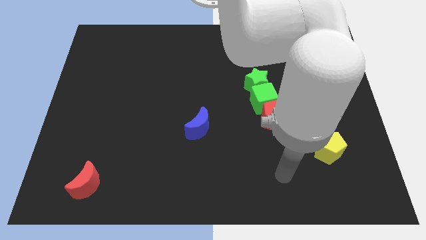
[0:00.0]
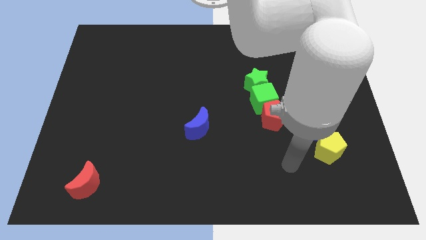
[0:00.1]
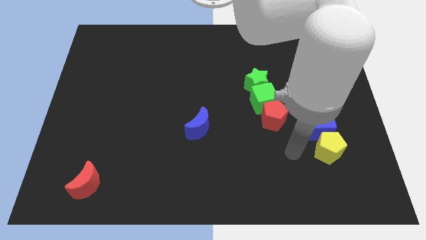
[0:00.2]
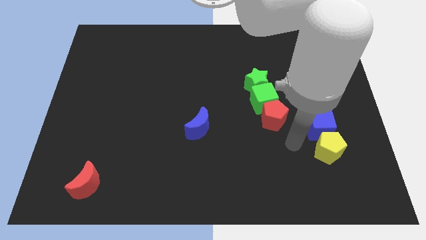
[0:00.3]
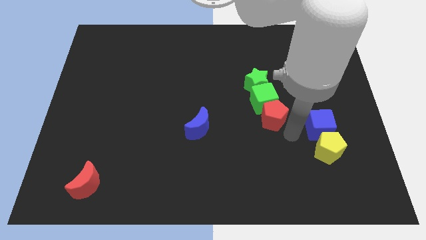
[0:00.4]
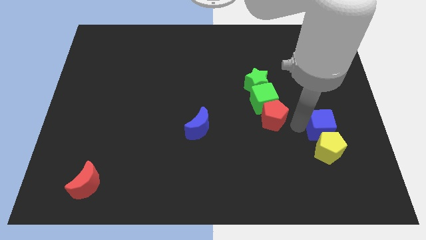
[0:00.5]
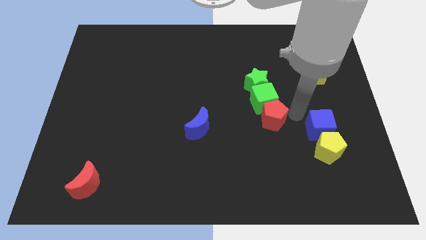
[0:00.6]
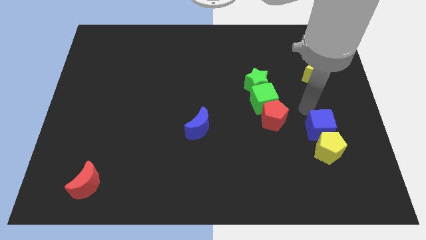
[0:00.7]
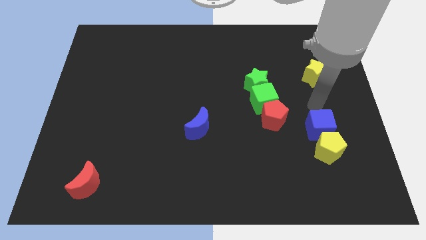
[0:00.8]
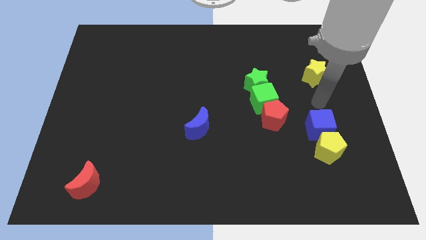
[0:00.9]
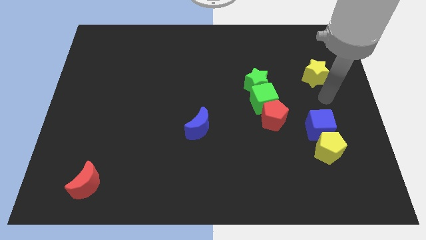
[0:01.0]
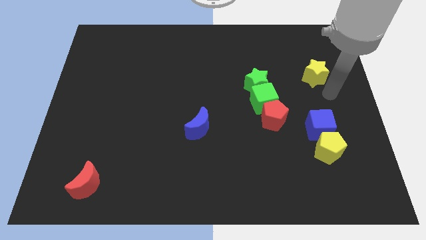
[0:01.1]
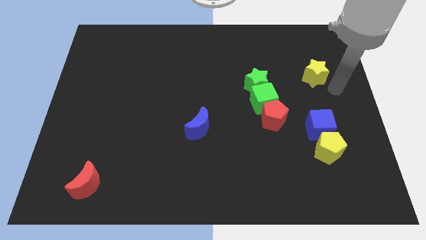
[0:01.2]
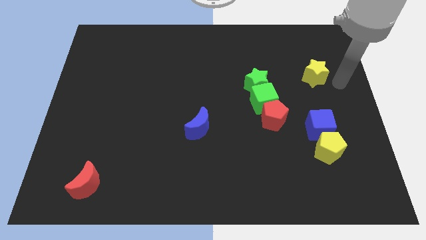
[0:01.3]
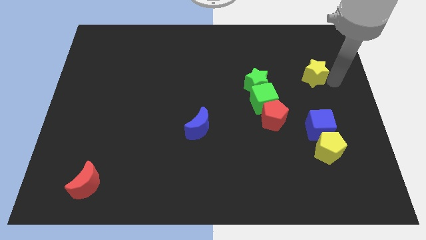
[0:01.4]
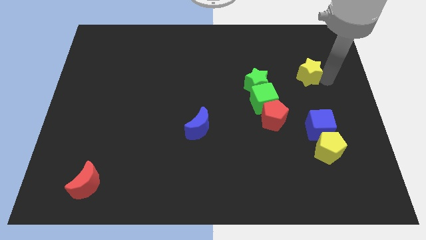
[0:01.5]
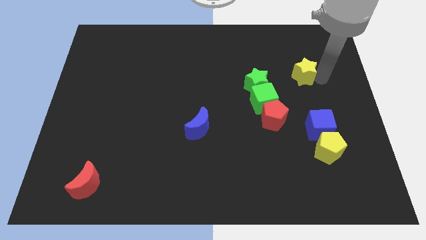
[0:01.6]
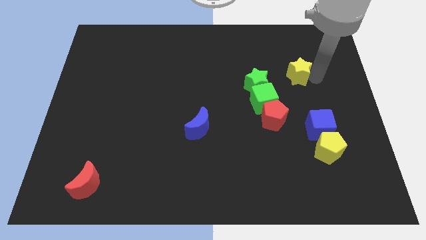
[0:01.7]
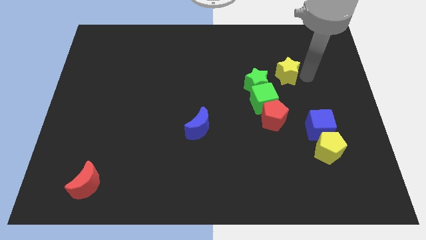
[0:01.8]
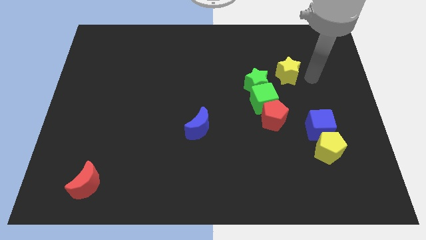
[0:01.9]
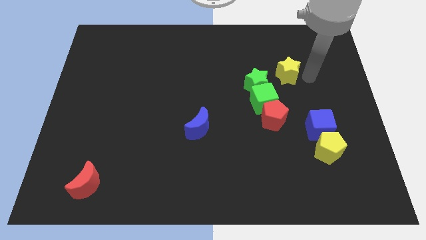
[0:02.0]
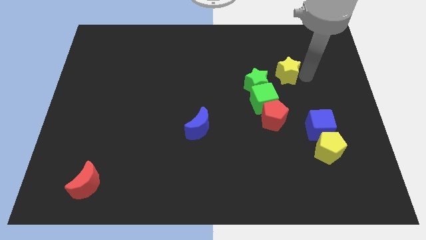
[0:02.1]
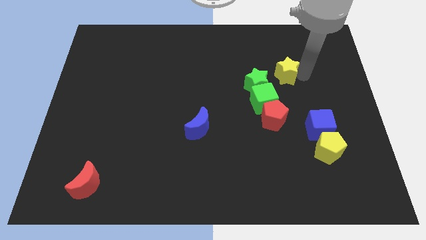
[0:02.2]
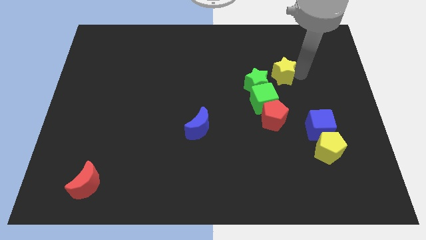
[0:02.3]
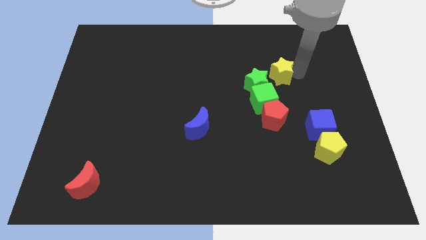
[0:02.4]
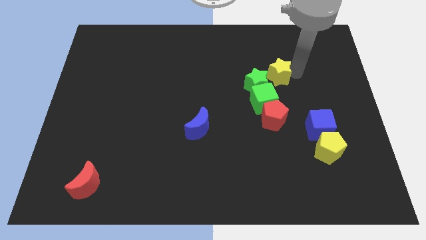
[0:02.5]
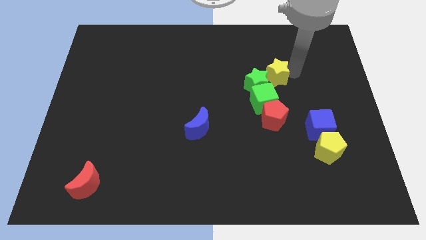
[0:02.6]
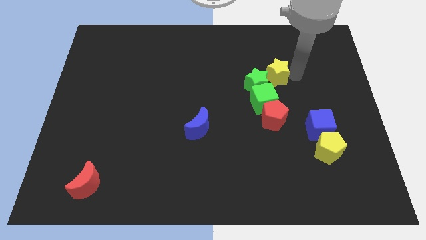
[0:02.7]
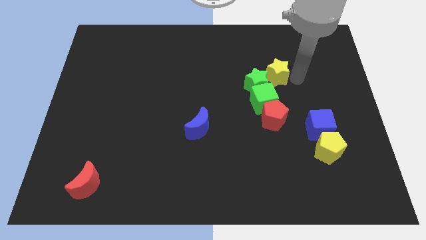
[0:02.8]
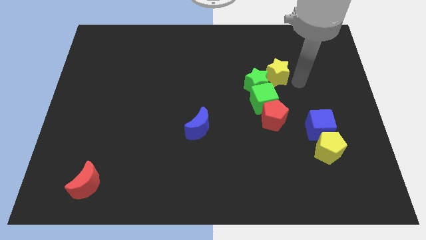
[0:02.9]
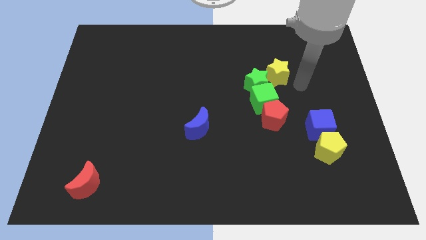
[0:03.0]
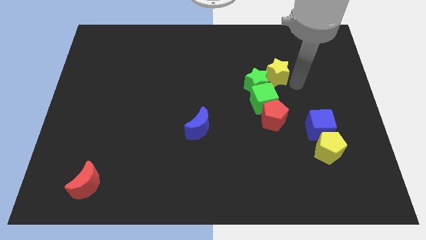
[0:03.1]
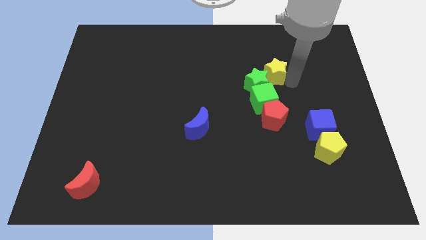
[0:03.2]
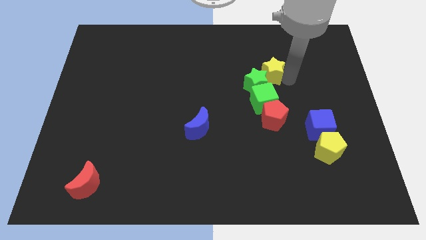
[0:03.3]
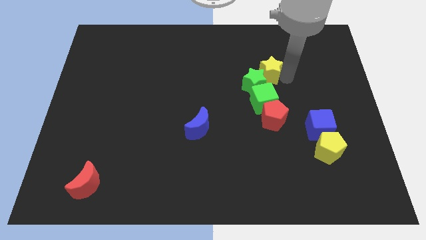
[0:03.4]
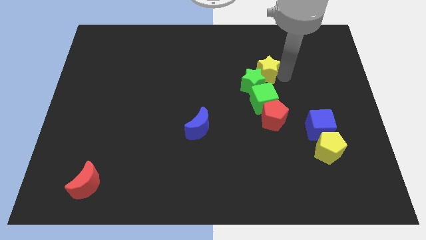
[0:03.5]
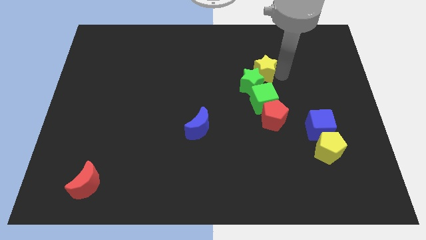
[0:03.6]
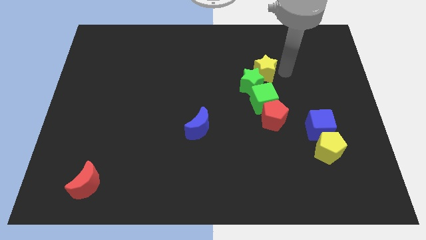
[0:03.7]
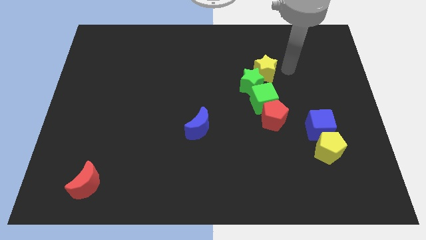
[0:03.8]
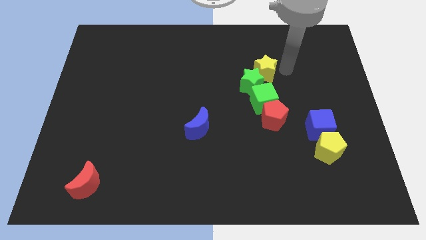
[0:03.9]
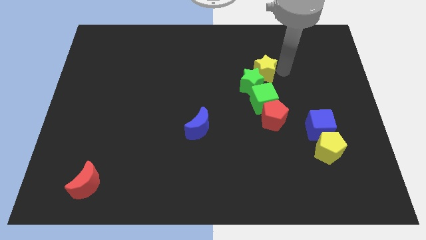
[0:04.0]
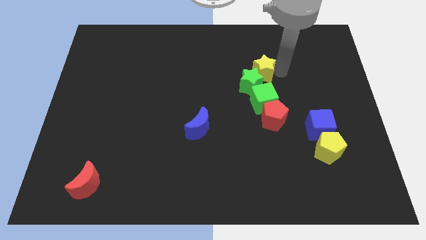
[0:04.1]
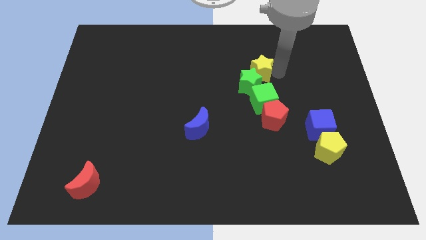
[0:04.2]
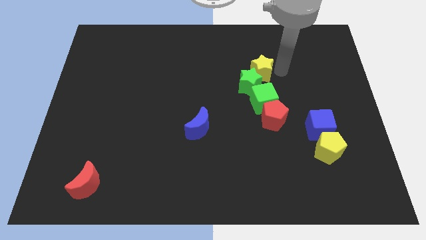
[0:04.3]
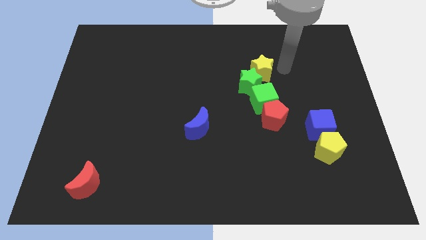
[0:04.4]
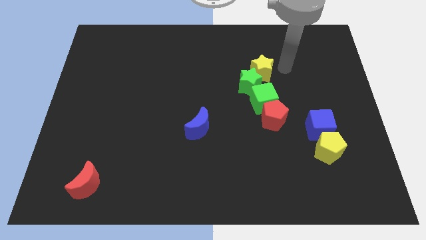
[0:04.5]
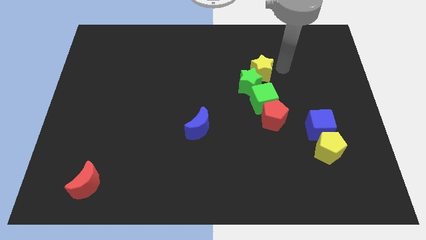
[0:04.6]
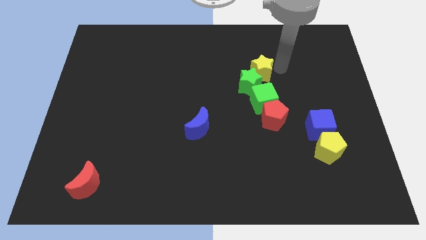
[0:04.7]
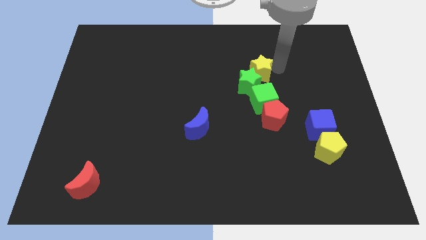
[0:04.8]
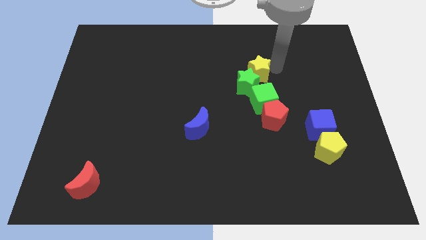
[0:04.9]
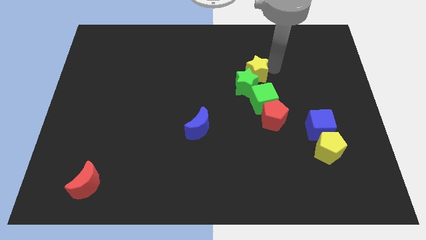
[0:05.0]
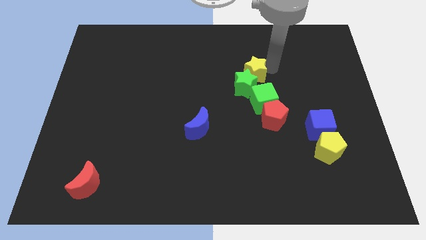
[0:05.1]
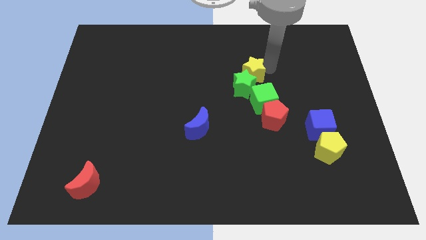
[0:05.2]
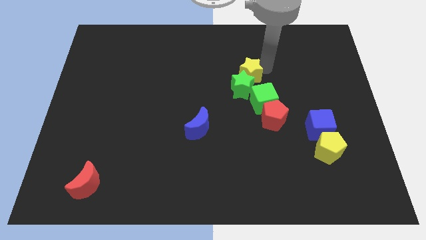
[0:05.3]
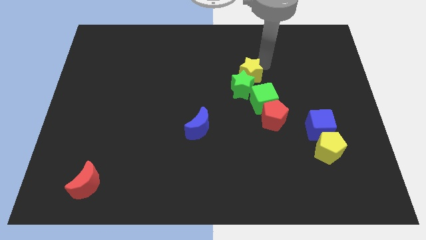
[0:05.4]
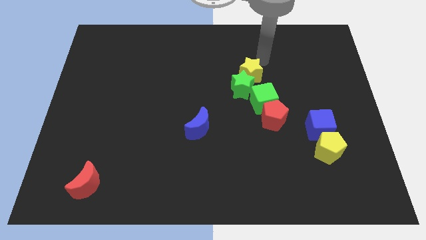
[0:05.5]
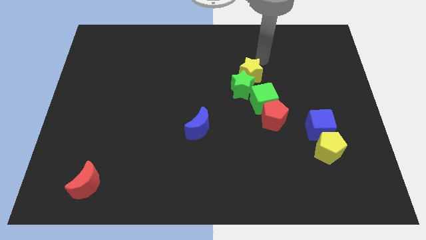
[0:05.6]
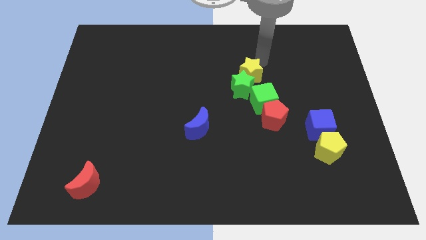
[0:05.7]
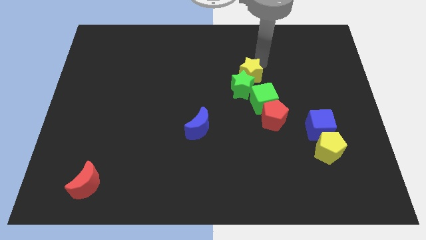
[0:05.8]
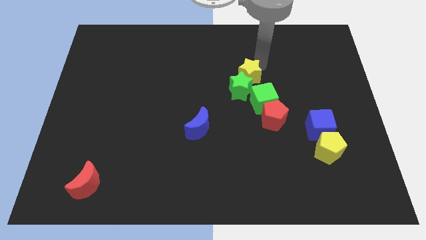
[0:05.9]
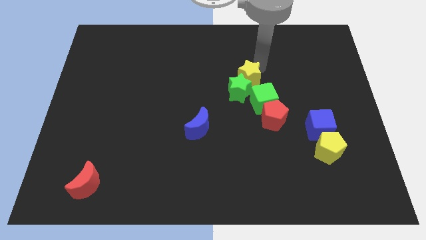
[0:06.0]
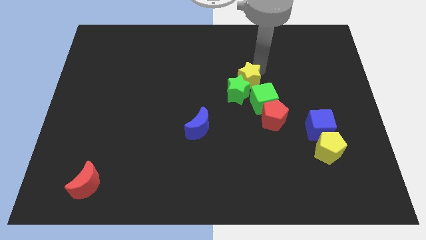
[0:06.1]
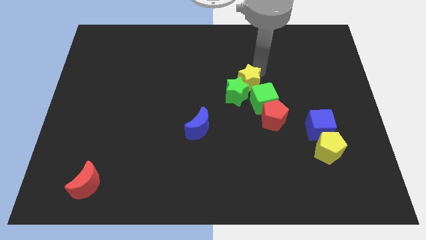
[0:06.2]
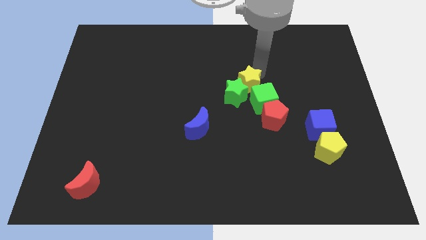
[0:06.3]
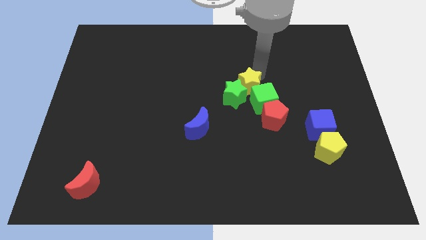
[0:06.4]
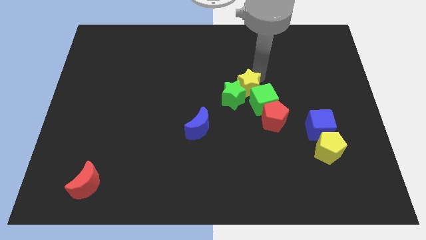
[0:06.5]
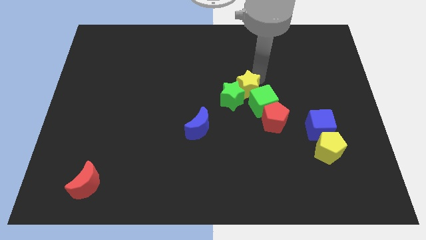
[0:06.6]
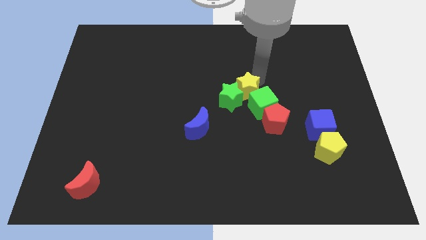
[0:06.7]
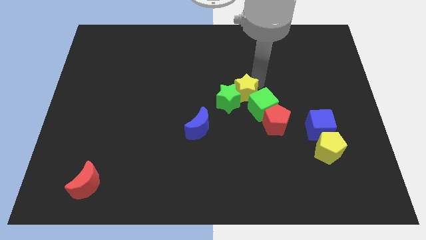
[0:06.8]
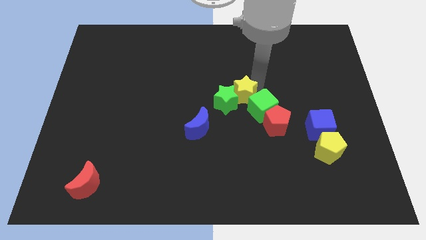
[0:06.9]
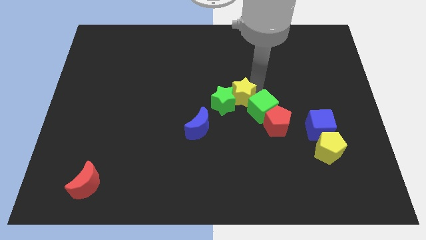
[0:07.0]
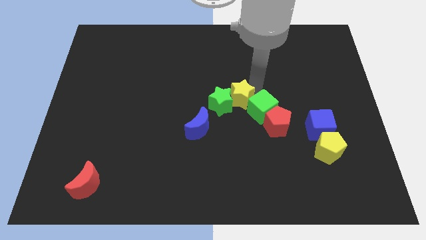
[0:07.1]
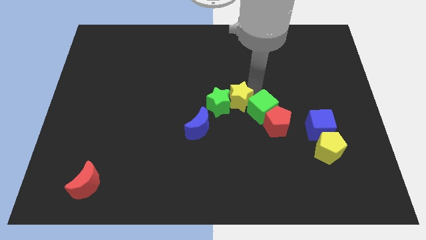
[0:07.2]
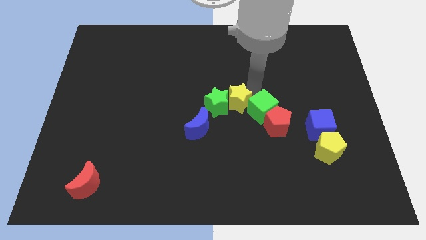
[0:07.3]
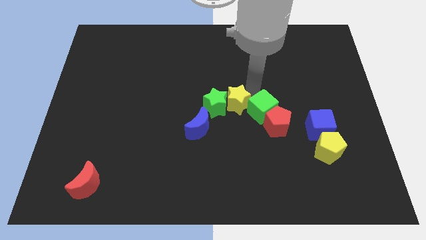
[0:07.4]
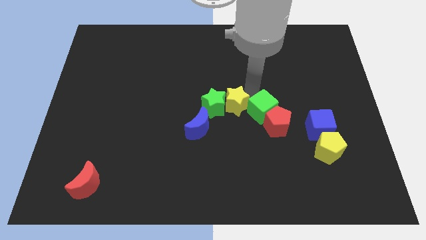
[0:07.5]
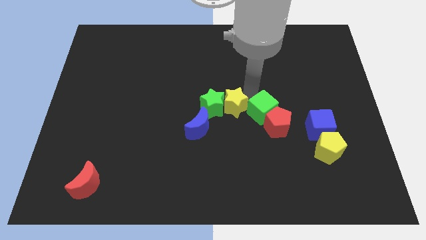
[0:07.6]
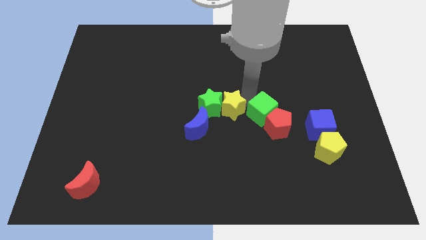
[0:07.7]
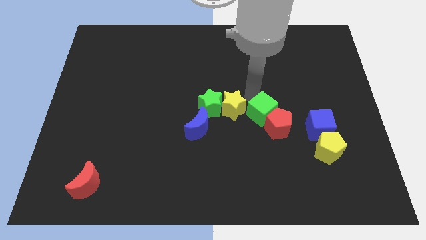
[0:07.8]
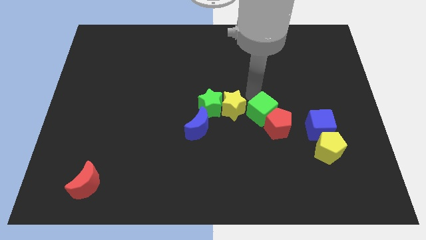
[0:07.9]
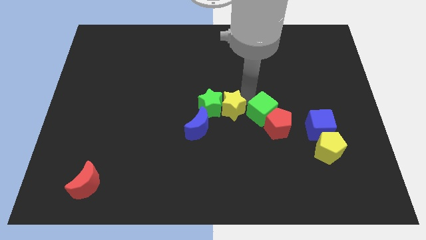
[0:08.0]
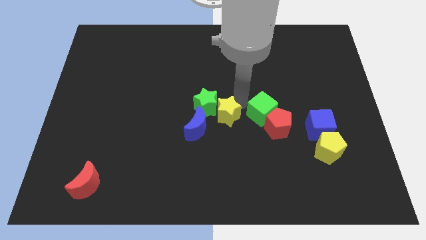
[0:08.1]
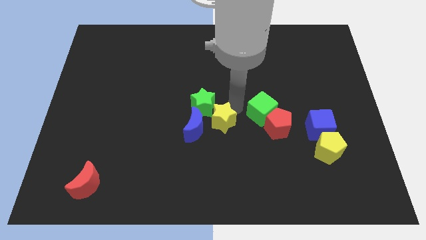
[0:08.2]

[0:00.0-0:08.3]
move the yellow star next to the blue moon
